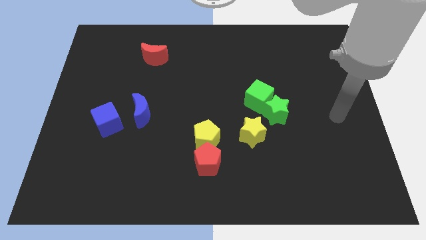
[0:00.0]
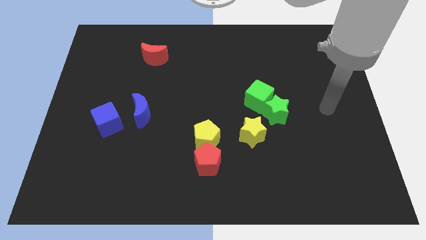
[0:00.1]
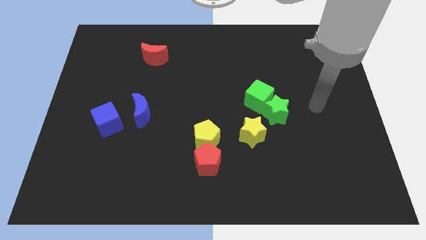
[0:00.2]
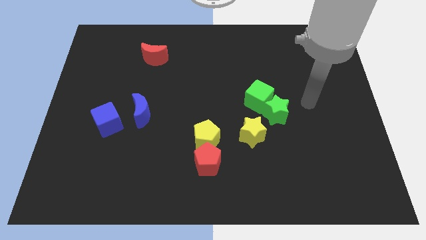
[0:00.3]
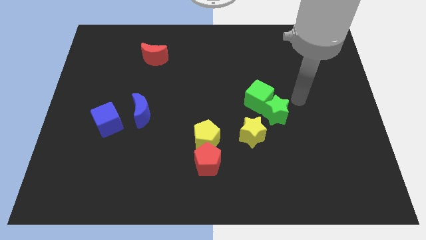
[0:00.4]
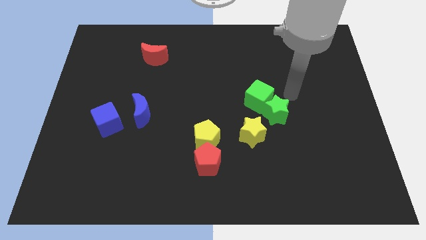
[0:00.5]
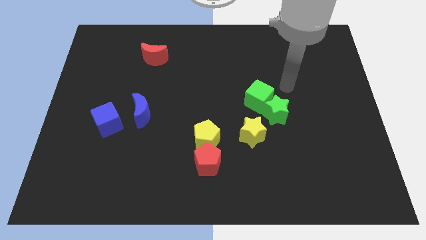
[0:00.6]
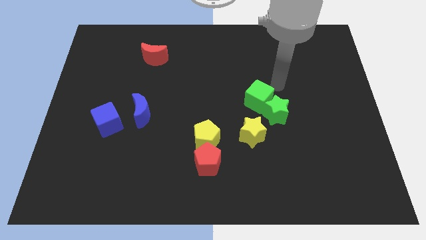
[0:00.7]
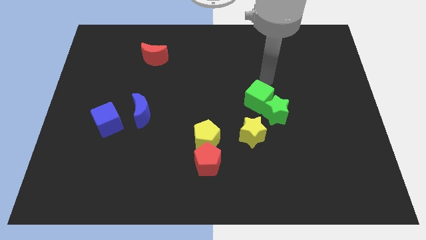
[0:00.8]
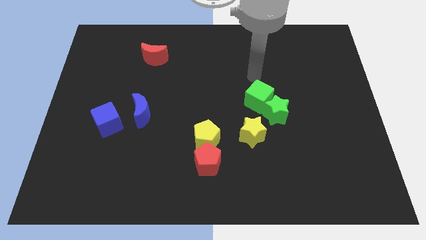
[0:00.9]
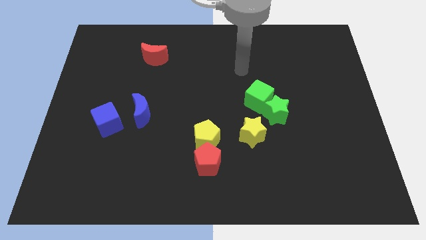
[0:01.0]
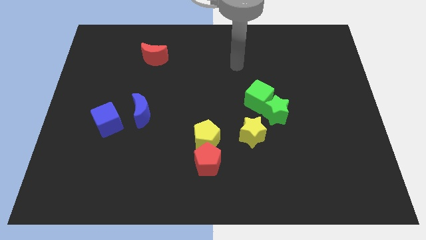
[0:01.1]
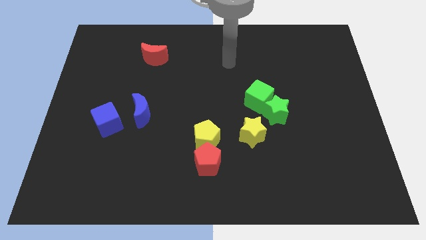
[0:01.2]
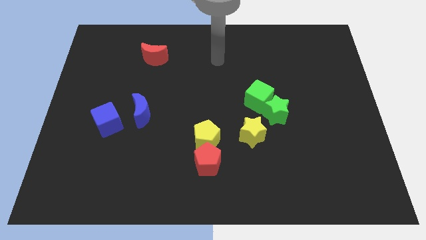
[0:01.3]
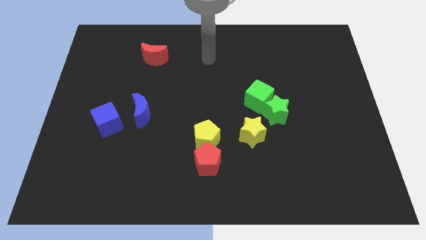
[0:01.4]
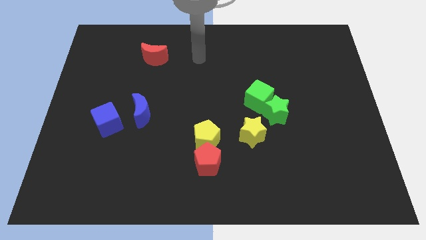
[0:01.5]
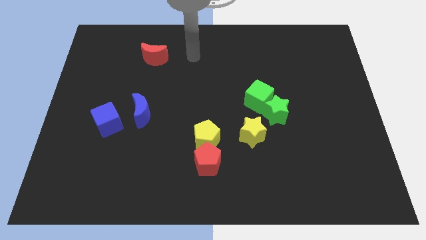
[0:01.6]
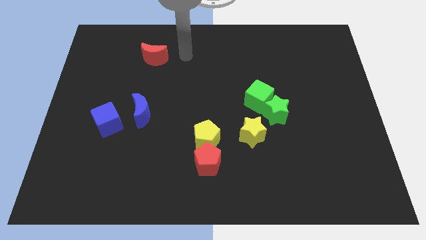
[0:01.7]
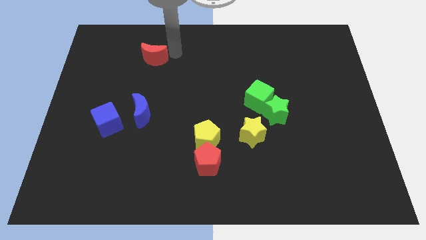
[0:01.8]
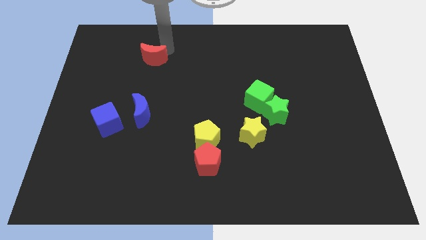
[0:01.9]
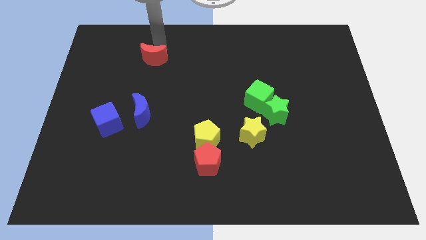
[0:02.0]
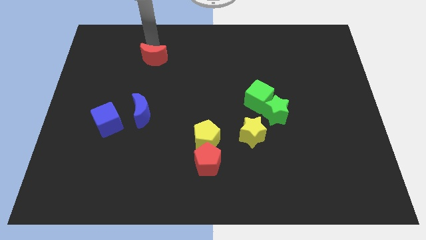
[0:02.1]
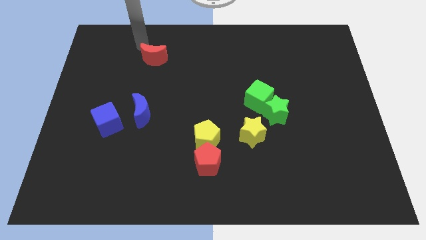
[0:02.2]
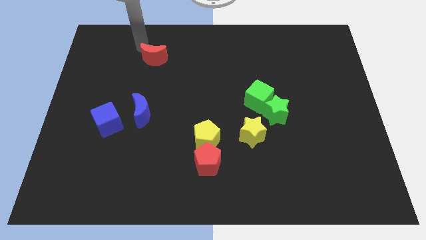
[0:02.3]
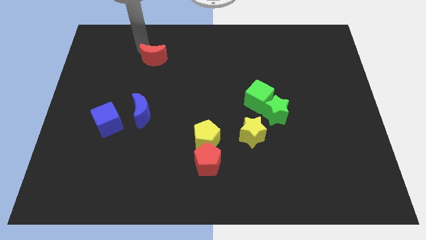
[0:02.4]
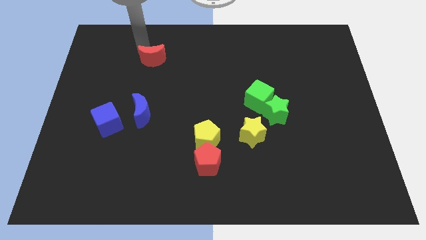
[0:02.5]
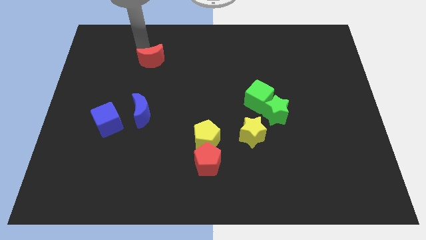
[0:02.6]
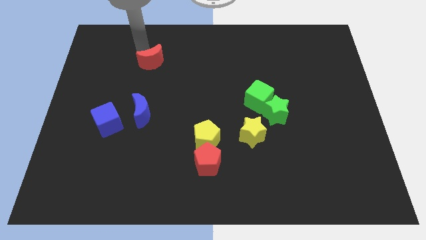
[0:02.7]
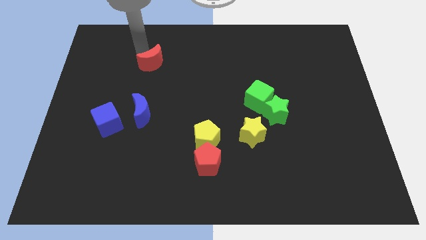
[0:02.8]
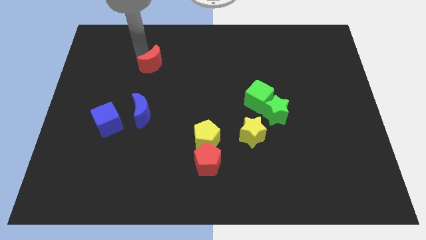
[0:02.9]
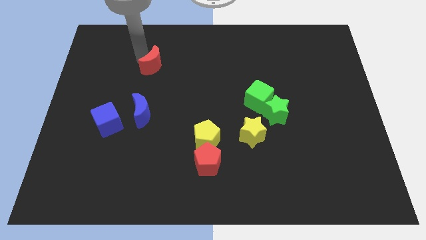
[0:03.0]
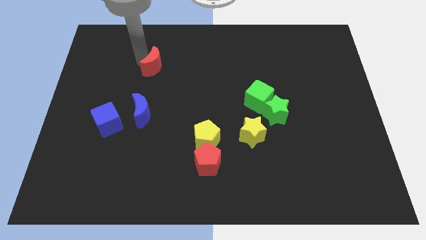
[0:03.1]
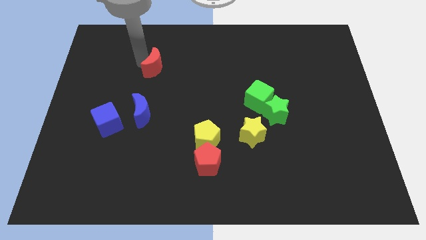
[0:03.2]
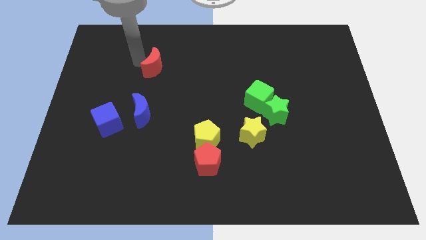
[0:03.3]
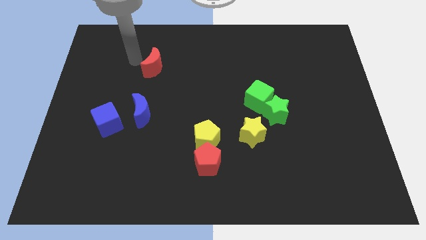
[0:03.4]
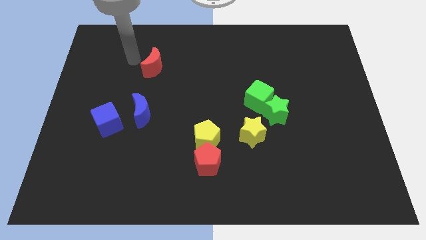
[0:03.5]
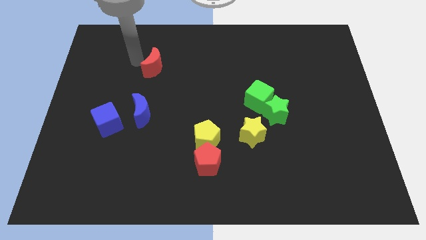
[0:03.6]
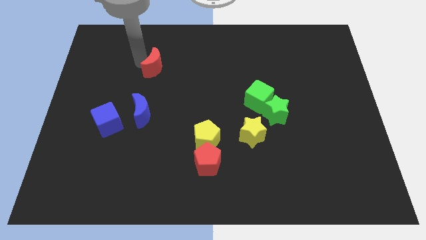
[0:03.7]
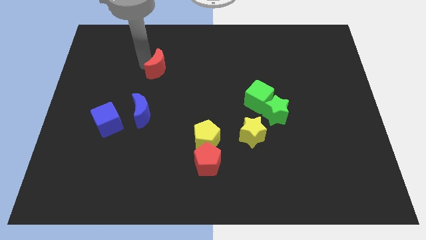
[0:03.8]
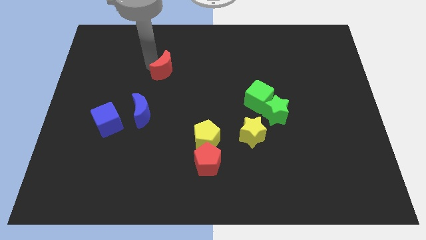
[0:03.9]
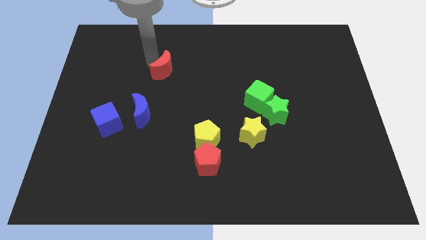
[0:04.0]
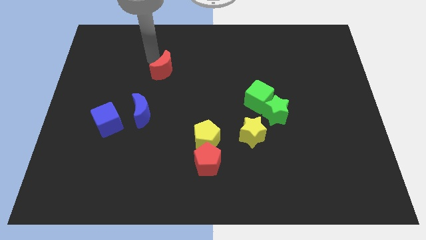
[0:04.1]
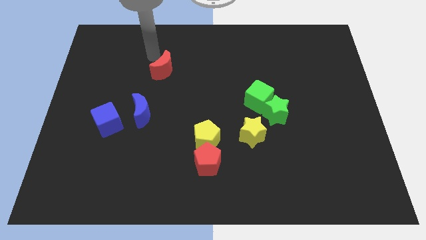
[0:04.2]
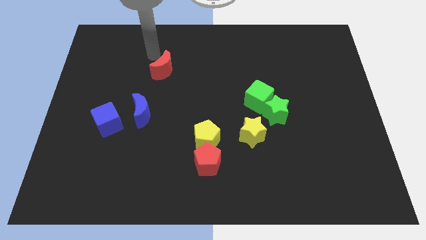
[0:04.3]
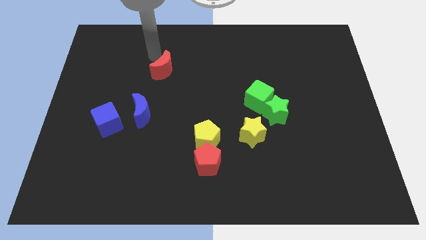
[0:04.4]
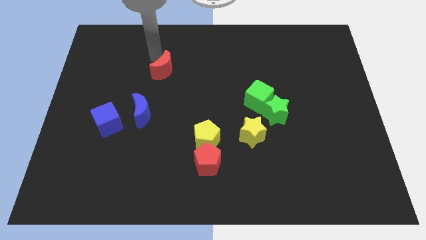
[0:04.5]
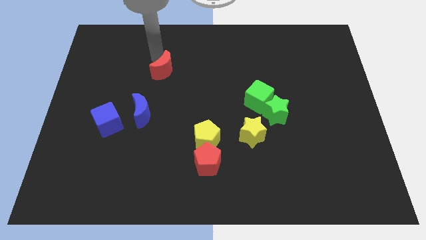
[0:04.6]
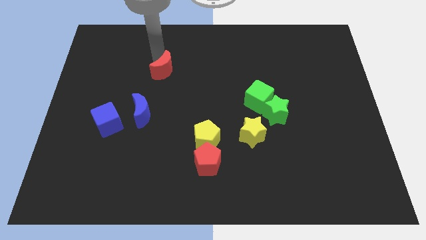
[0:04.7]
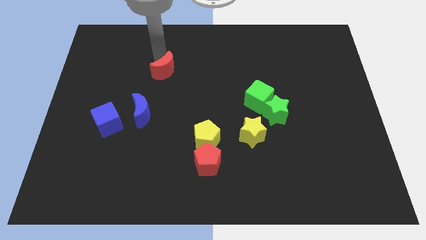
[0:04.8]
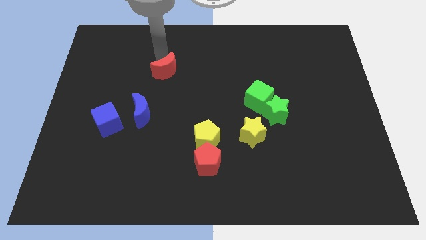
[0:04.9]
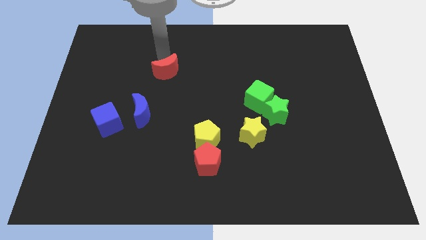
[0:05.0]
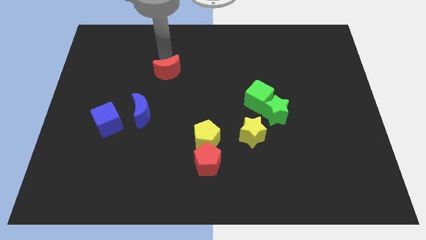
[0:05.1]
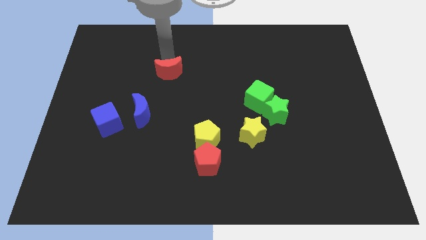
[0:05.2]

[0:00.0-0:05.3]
push the red moon down and right a bit

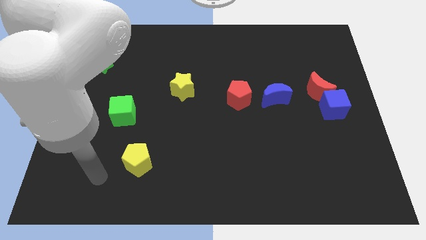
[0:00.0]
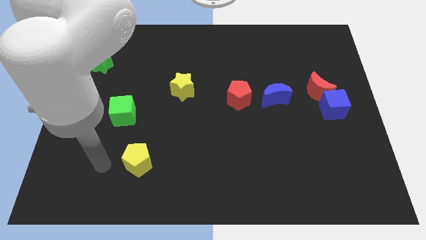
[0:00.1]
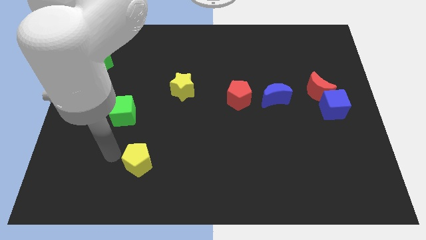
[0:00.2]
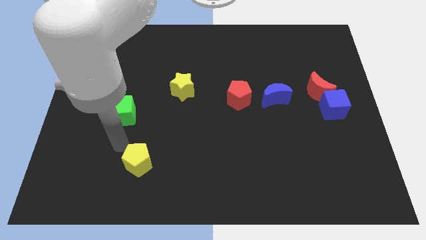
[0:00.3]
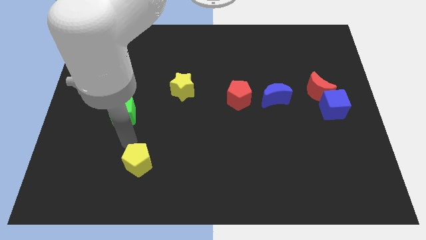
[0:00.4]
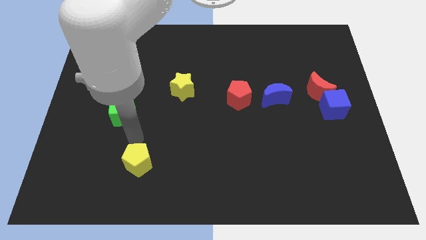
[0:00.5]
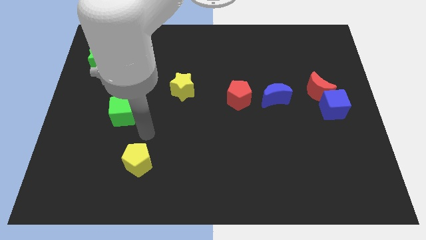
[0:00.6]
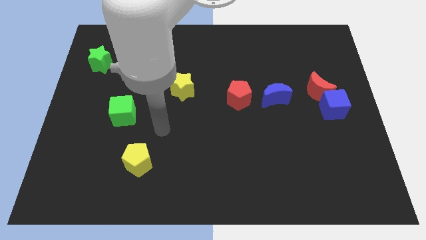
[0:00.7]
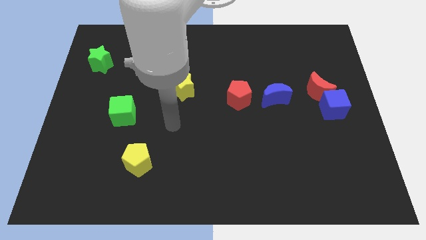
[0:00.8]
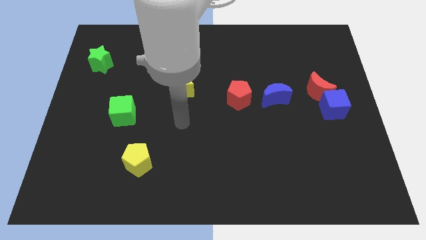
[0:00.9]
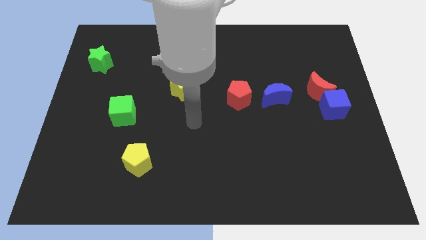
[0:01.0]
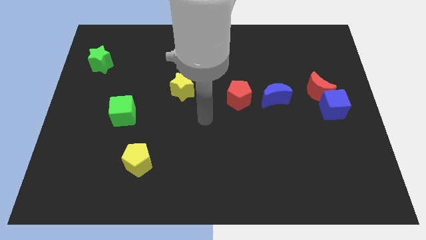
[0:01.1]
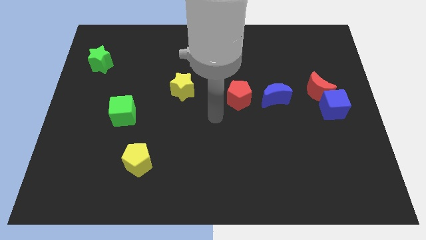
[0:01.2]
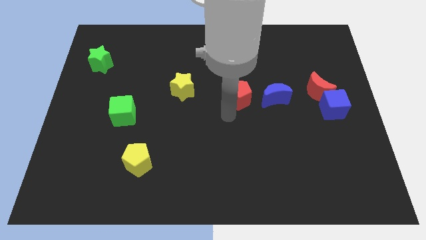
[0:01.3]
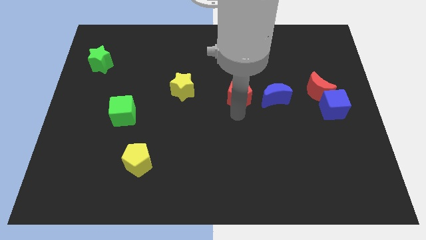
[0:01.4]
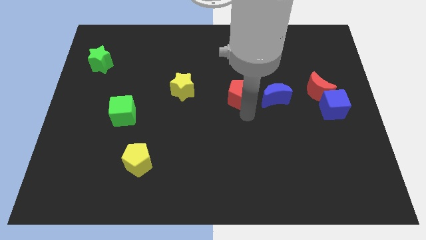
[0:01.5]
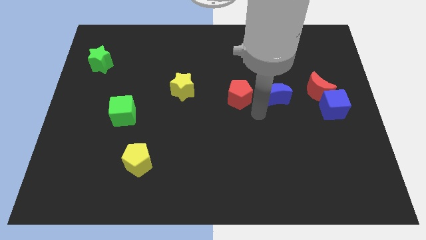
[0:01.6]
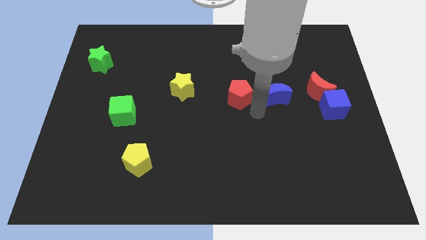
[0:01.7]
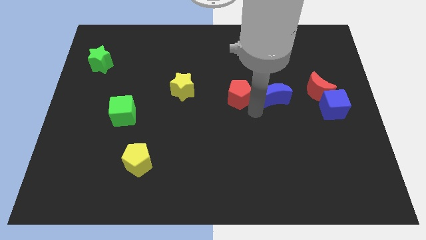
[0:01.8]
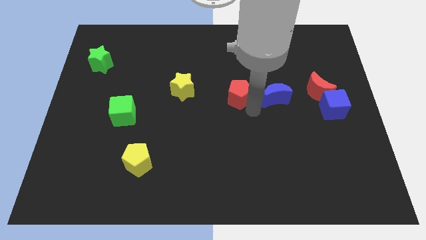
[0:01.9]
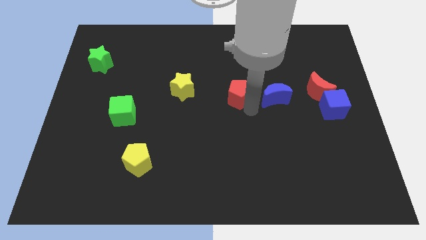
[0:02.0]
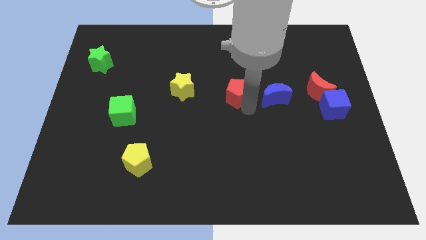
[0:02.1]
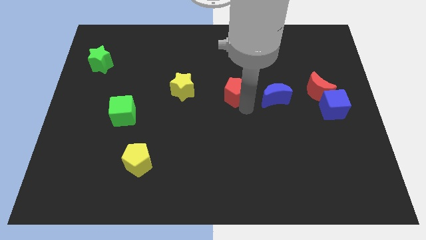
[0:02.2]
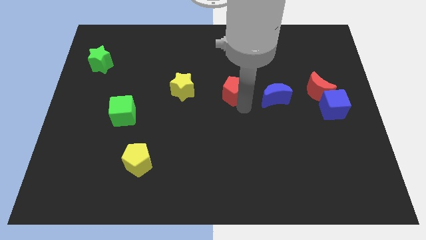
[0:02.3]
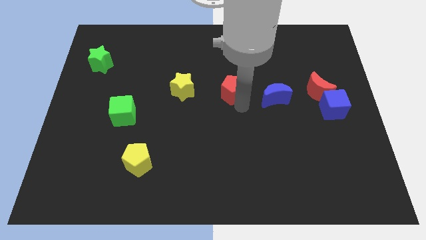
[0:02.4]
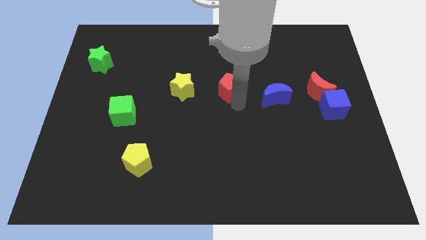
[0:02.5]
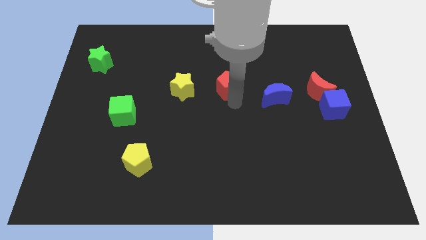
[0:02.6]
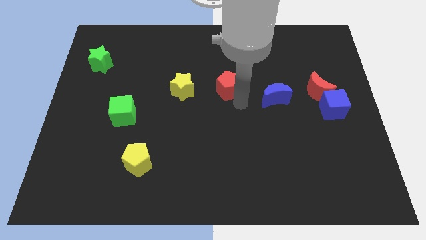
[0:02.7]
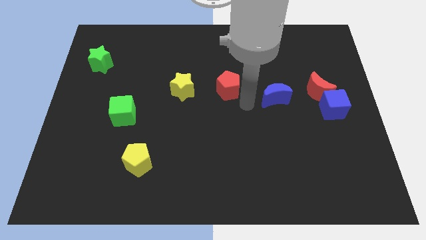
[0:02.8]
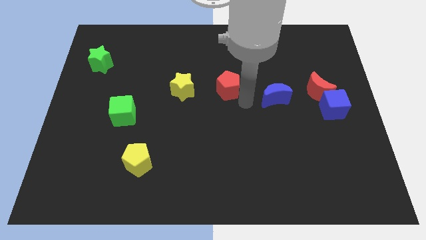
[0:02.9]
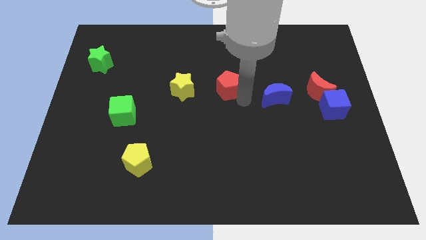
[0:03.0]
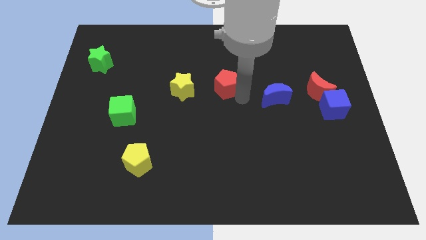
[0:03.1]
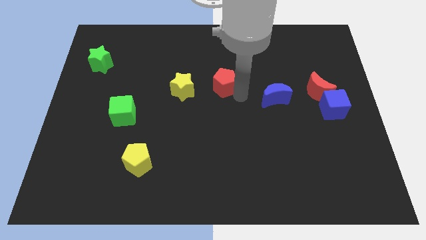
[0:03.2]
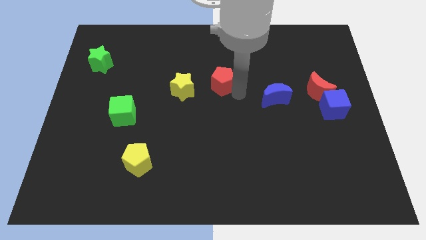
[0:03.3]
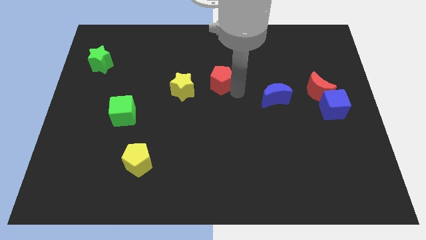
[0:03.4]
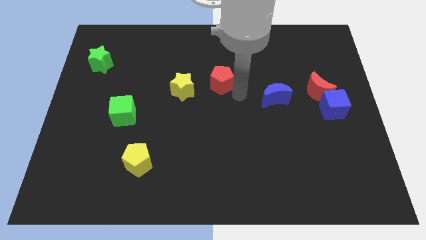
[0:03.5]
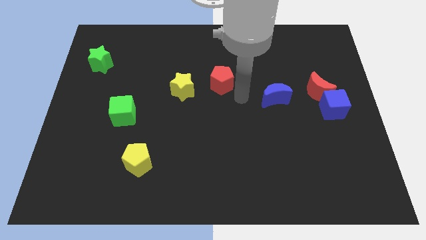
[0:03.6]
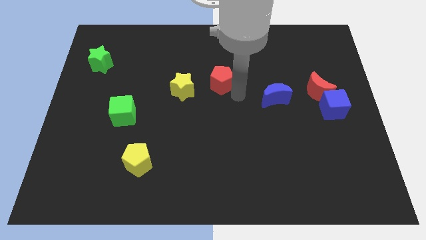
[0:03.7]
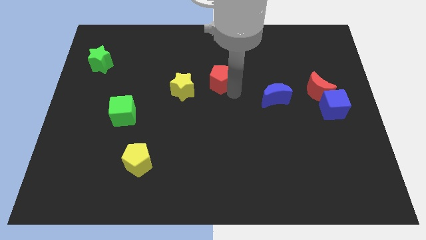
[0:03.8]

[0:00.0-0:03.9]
slightly push the red pentagon diagonally up and left
